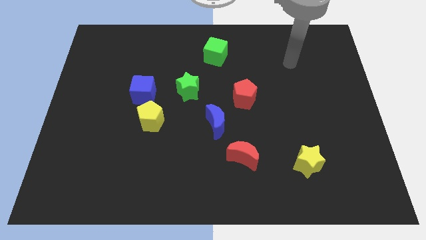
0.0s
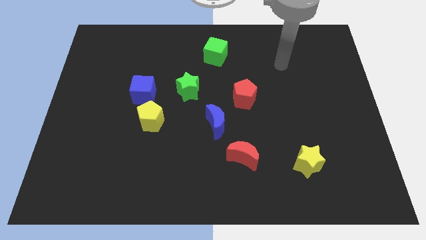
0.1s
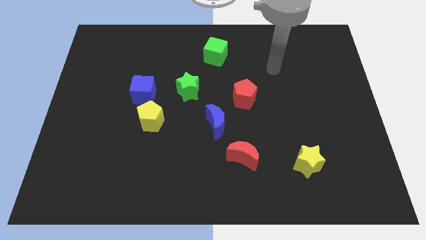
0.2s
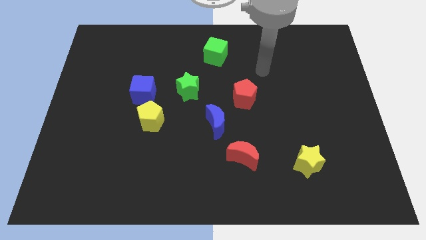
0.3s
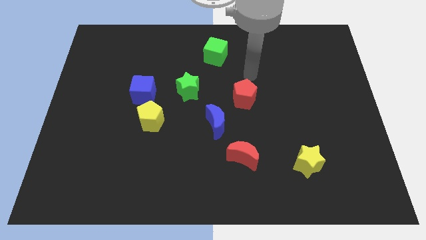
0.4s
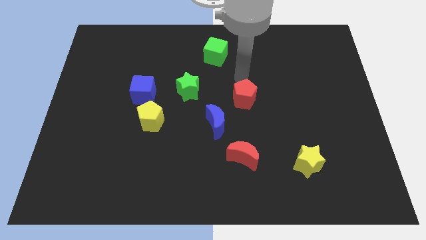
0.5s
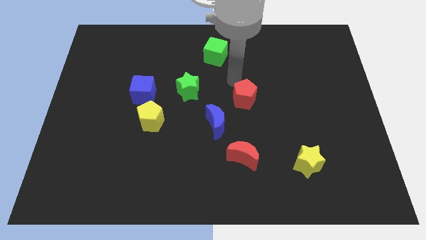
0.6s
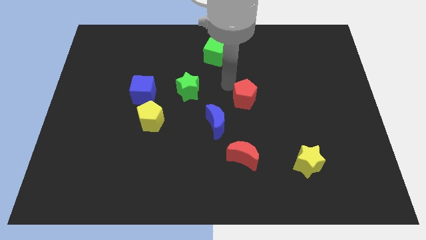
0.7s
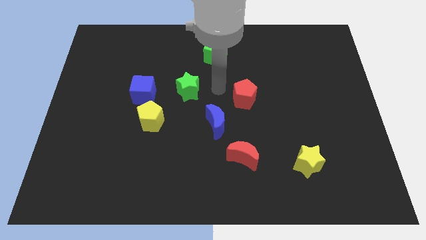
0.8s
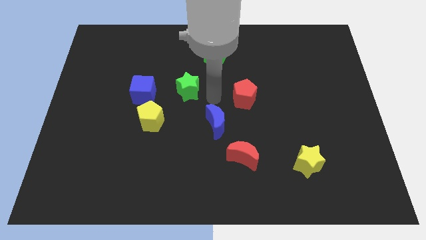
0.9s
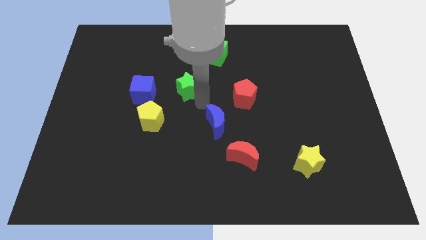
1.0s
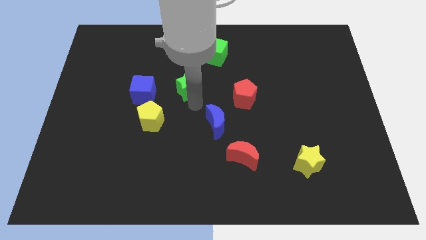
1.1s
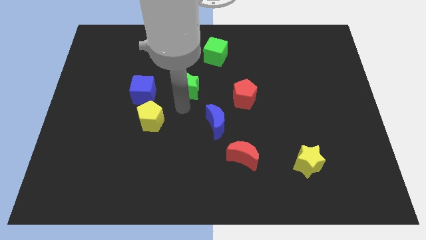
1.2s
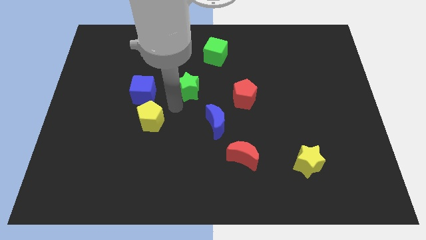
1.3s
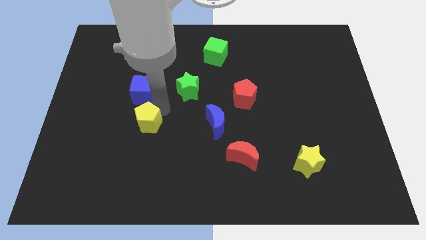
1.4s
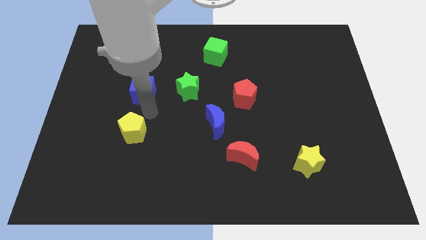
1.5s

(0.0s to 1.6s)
separate the blue cube from the yellow pentagon

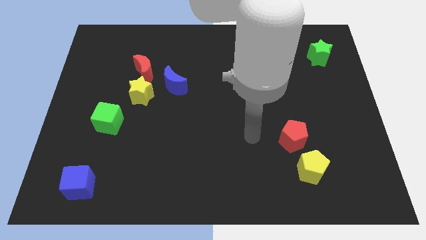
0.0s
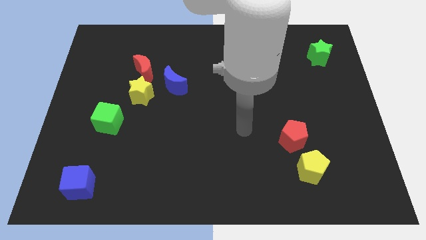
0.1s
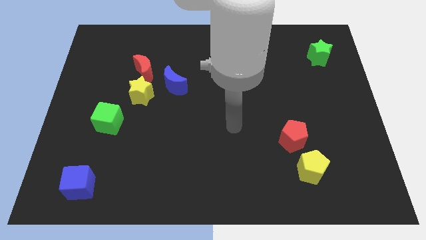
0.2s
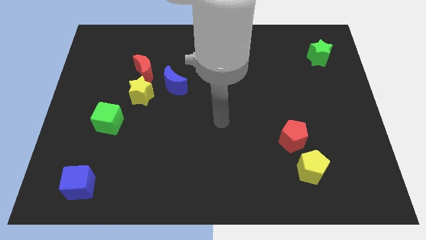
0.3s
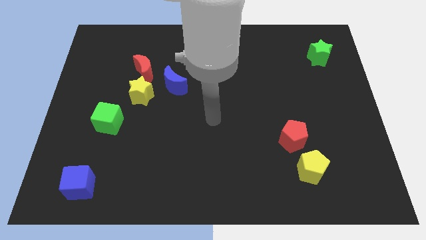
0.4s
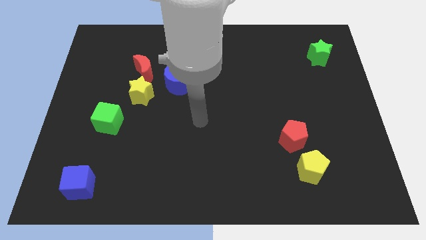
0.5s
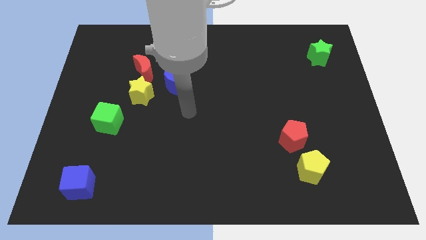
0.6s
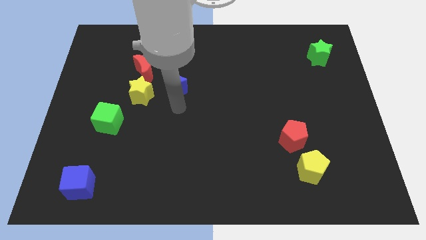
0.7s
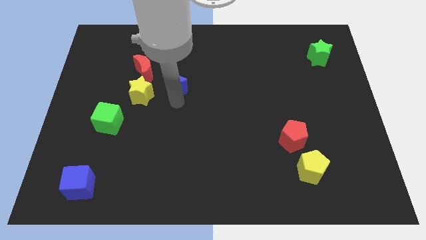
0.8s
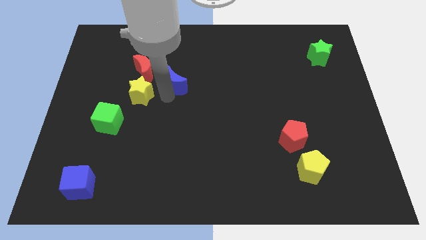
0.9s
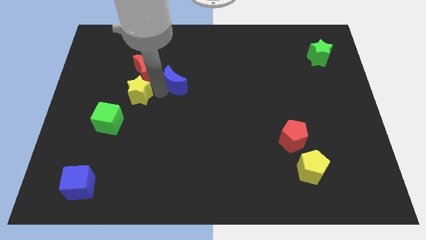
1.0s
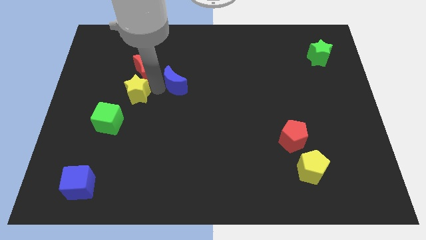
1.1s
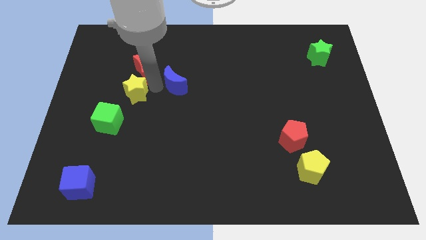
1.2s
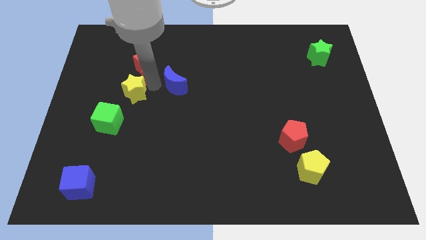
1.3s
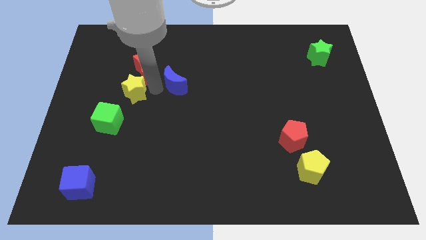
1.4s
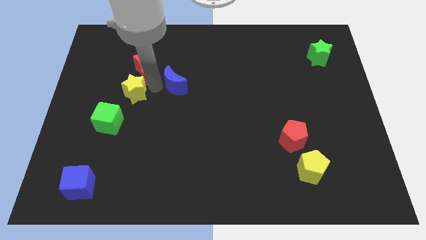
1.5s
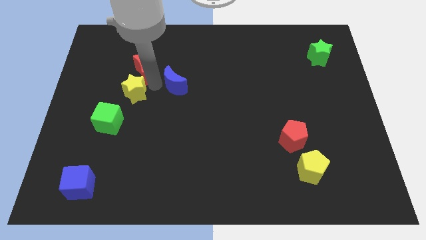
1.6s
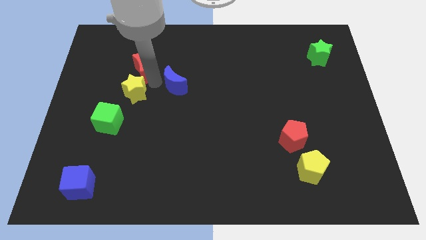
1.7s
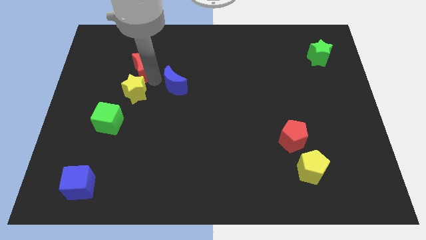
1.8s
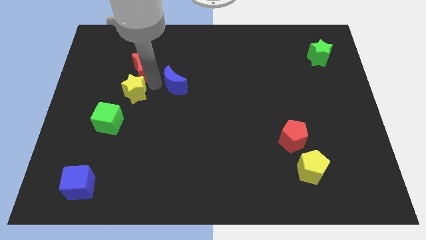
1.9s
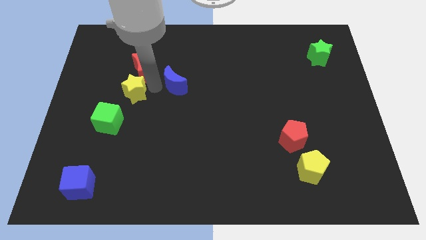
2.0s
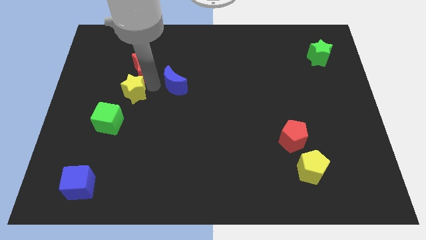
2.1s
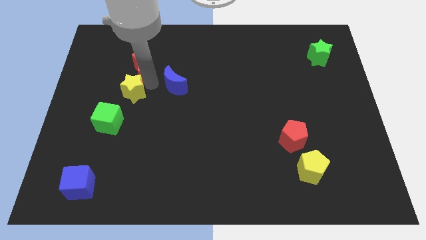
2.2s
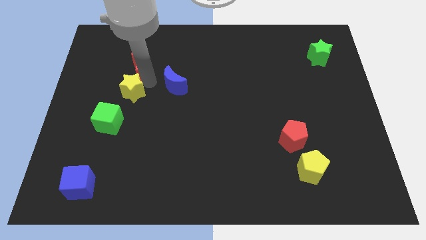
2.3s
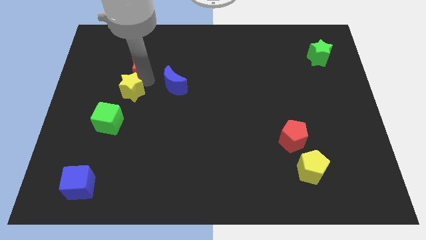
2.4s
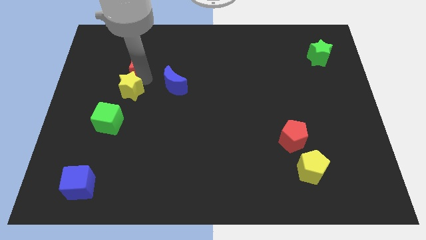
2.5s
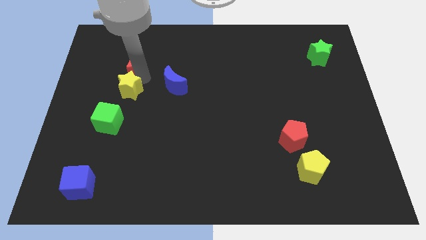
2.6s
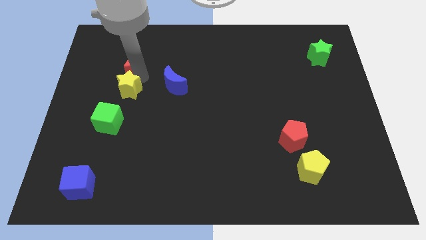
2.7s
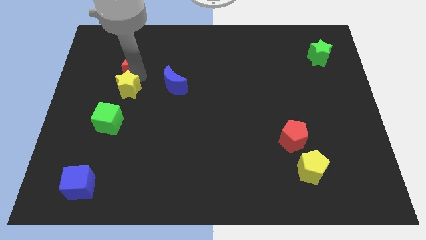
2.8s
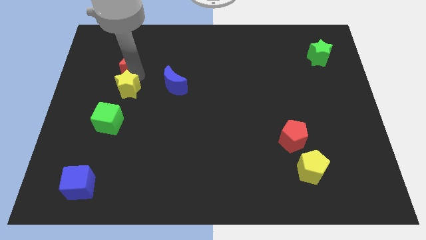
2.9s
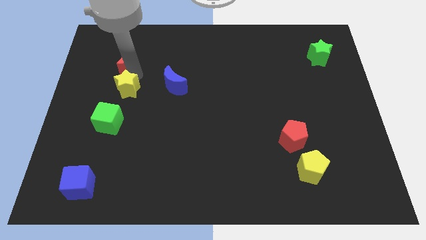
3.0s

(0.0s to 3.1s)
pull the red moon apart from the yellow star and blue moon

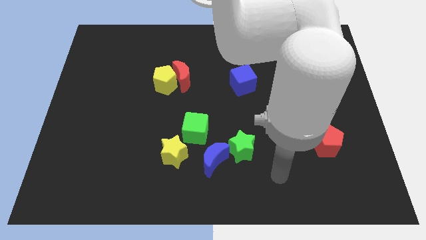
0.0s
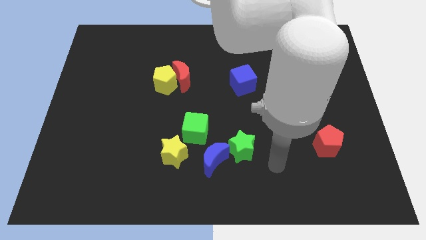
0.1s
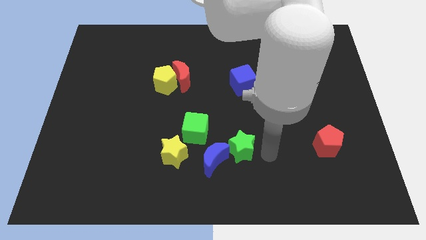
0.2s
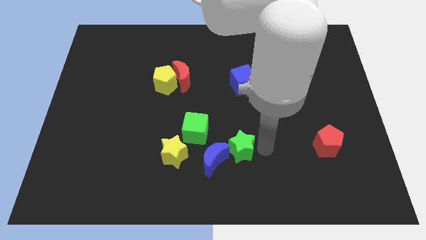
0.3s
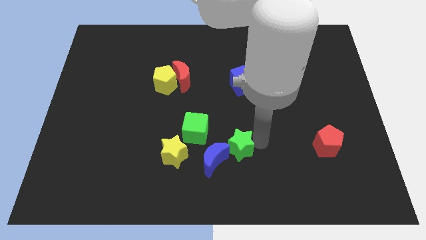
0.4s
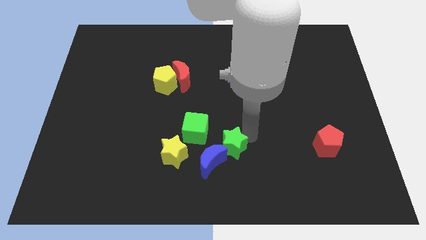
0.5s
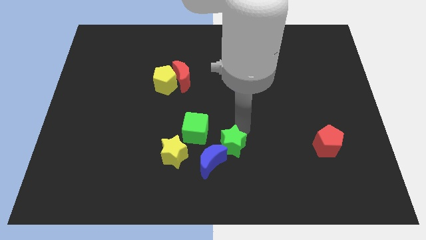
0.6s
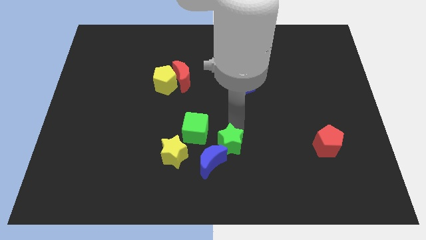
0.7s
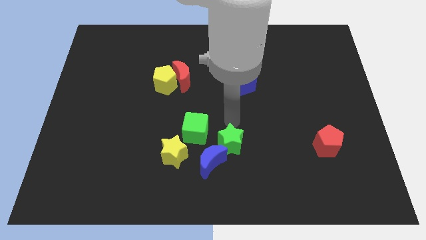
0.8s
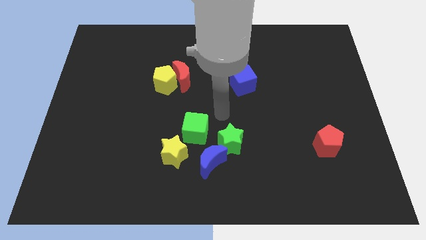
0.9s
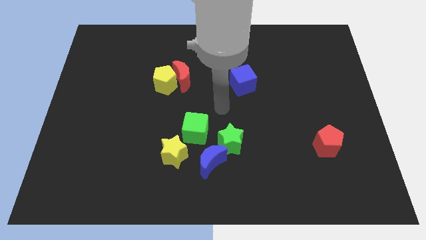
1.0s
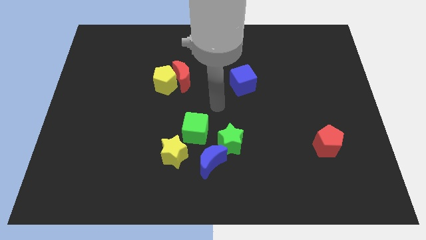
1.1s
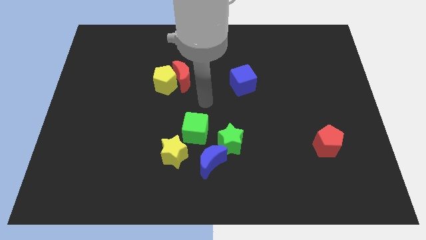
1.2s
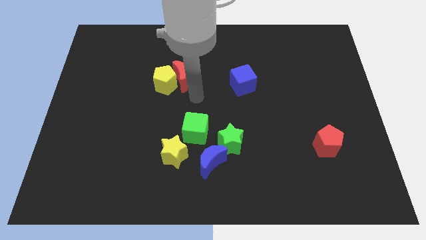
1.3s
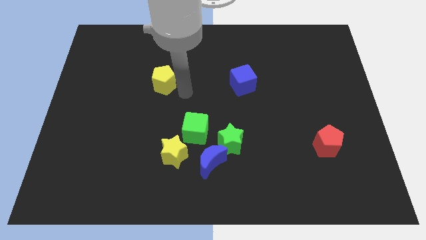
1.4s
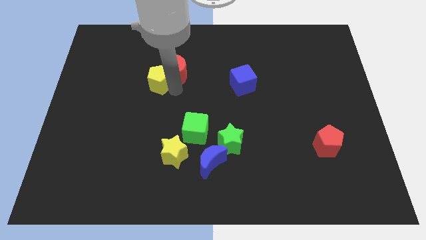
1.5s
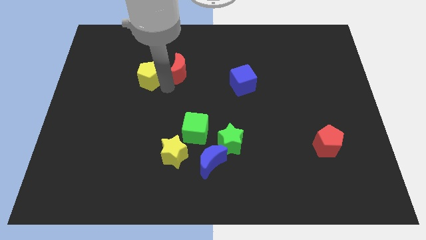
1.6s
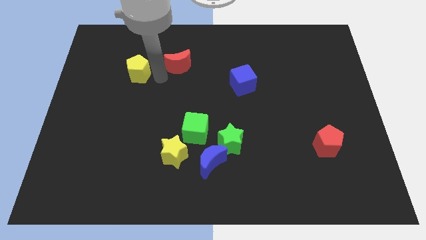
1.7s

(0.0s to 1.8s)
separate the red moon from the yellow pentagon

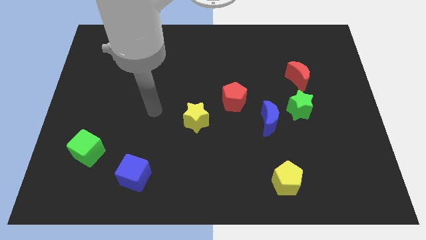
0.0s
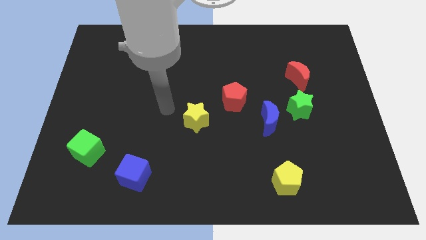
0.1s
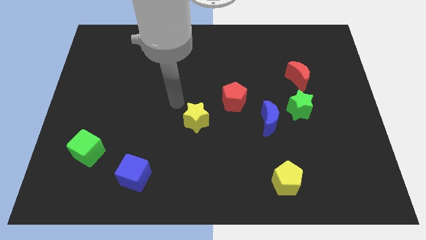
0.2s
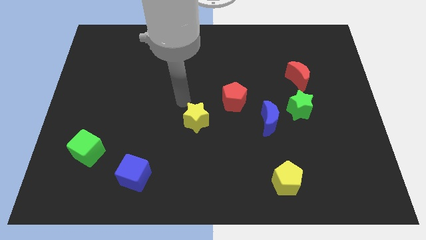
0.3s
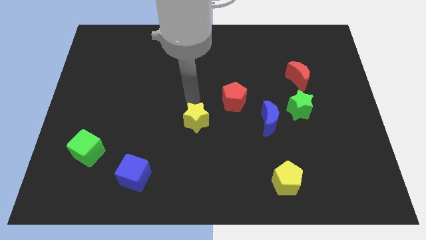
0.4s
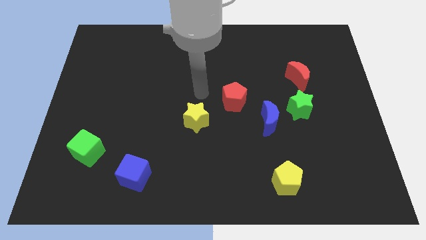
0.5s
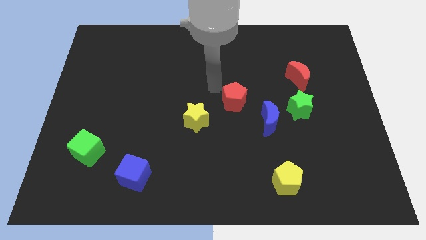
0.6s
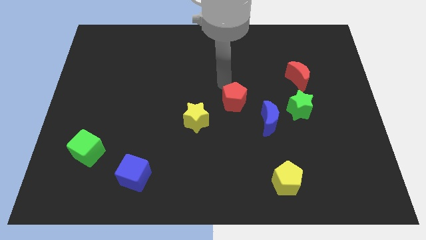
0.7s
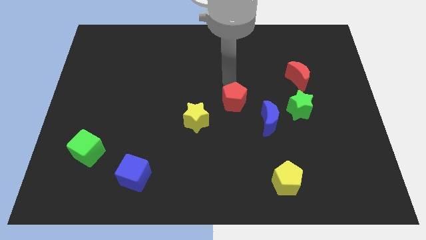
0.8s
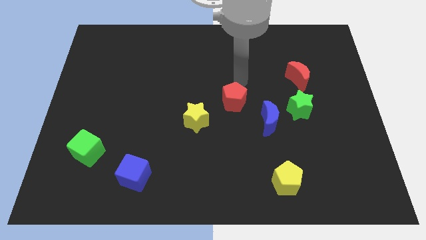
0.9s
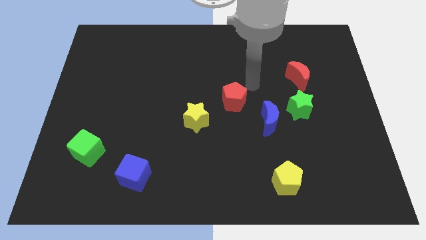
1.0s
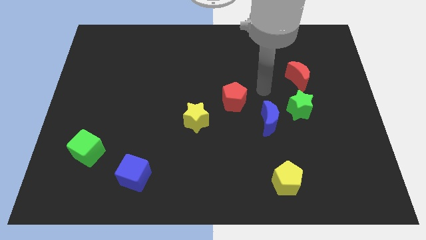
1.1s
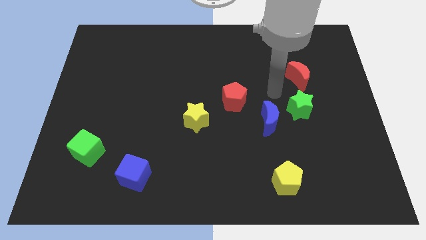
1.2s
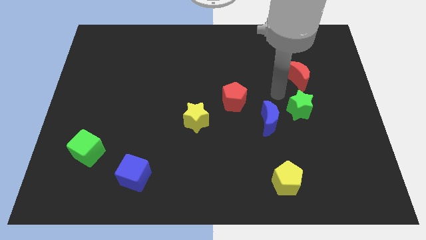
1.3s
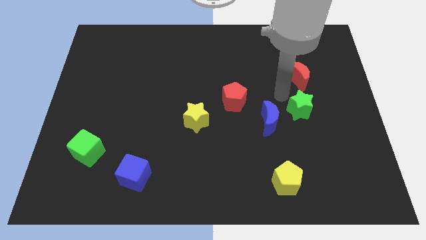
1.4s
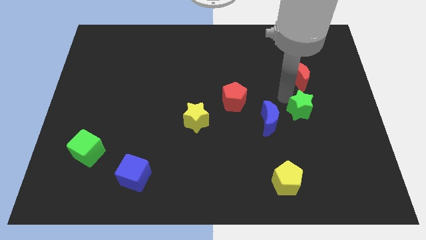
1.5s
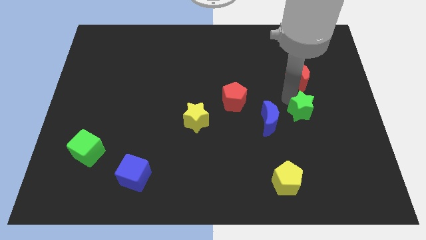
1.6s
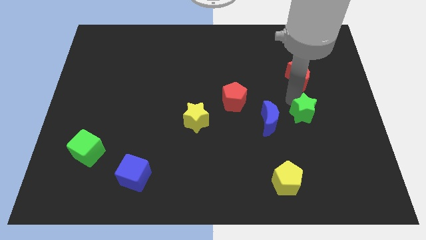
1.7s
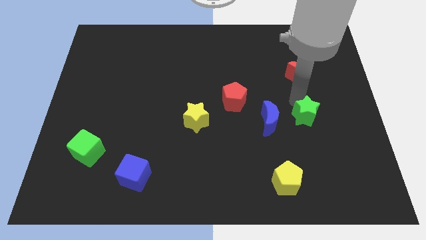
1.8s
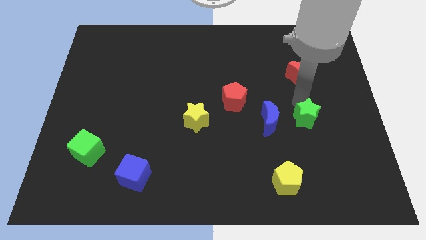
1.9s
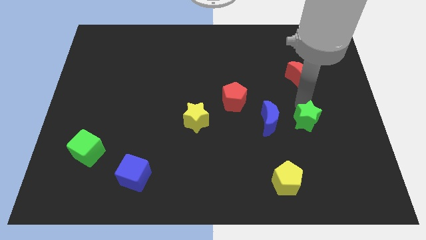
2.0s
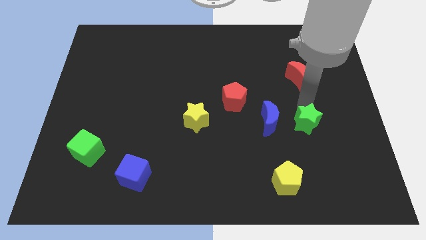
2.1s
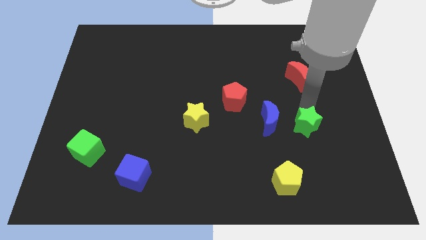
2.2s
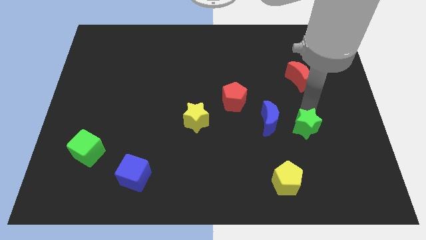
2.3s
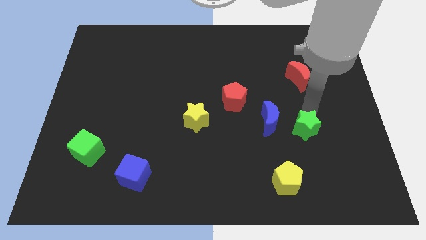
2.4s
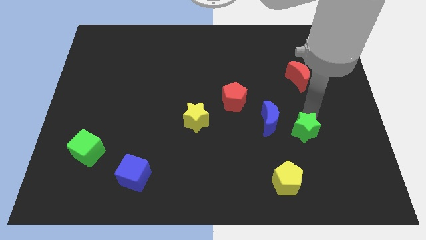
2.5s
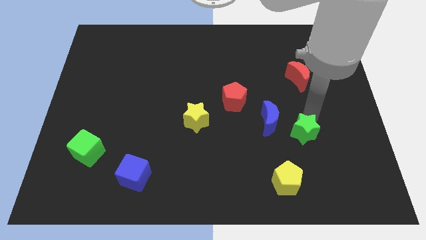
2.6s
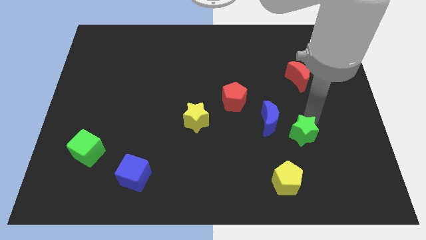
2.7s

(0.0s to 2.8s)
move the green star away from the blue moon and red moon

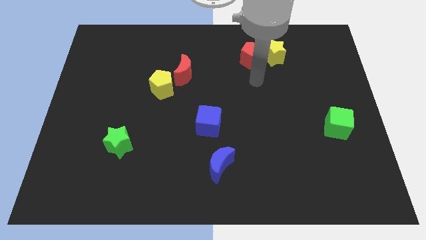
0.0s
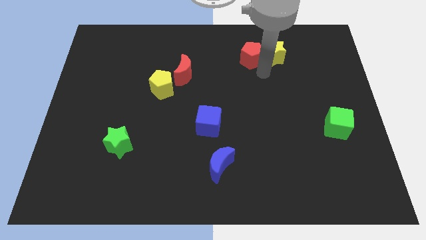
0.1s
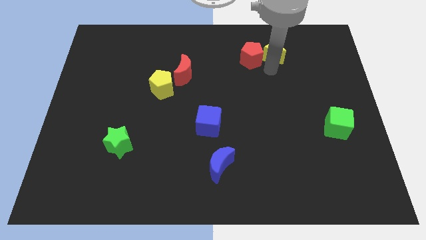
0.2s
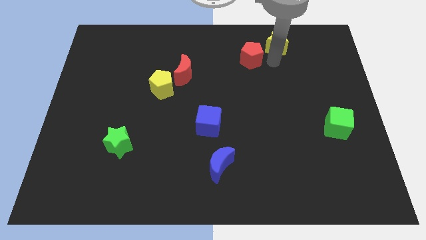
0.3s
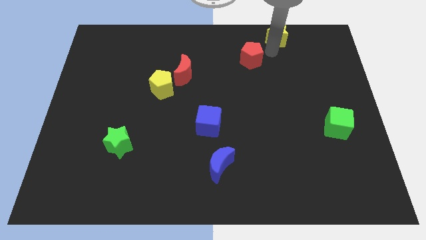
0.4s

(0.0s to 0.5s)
separate the red pentagon from the yellow star
